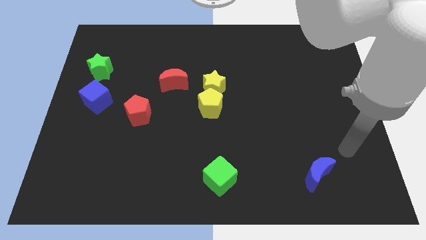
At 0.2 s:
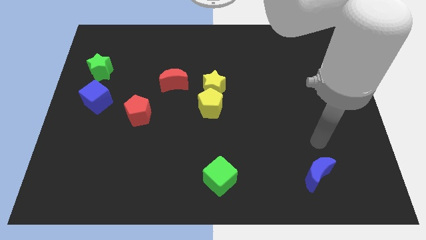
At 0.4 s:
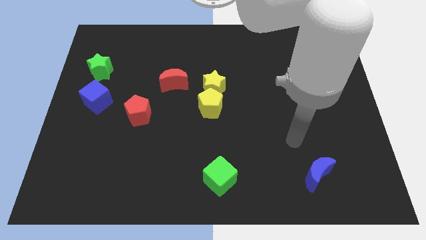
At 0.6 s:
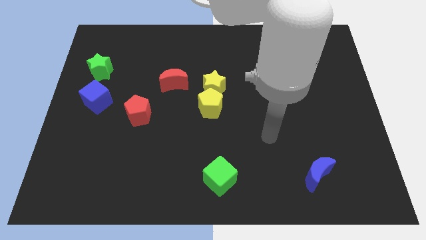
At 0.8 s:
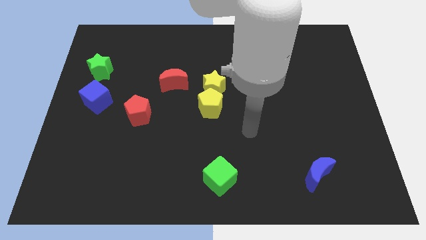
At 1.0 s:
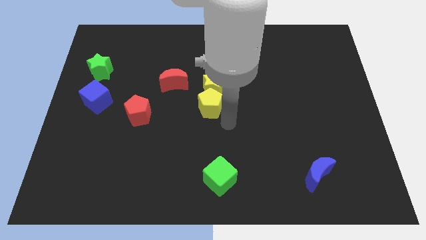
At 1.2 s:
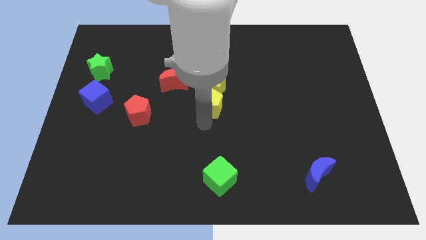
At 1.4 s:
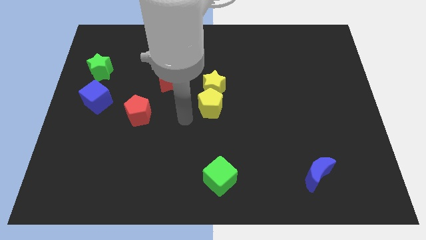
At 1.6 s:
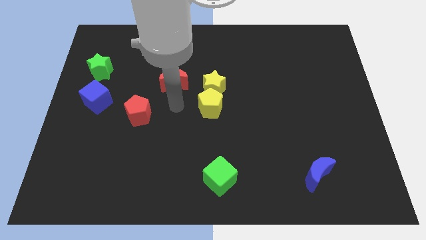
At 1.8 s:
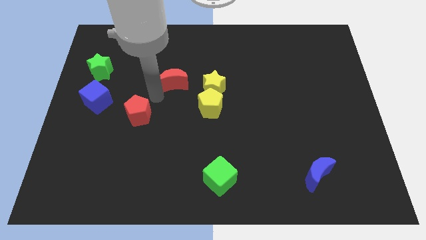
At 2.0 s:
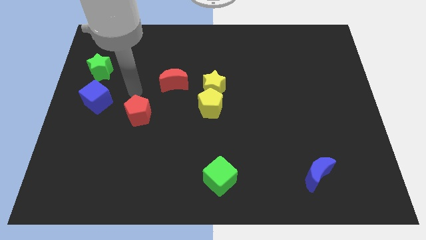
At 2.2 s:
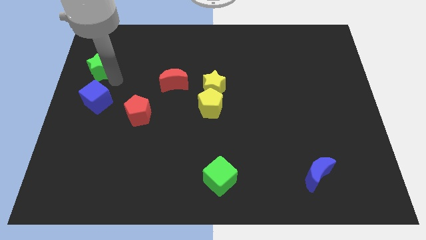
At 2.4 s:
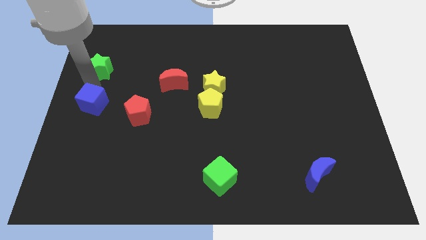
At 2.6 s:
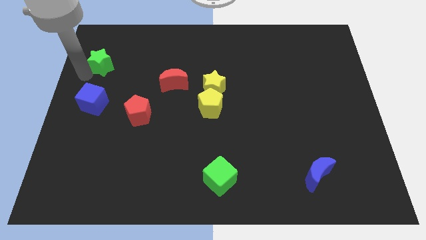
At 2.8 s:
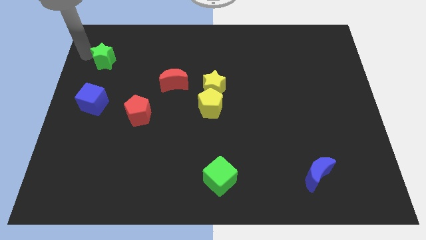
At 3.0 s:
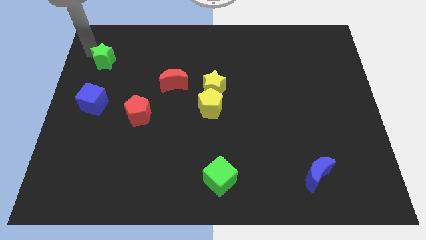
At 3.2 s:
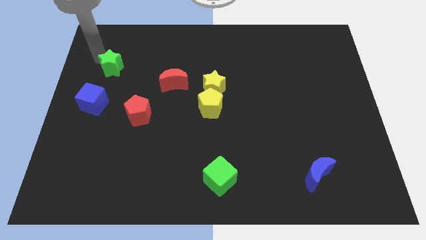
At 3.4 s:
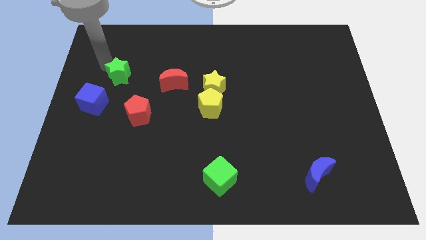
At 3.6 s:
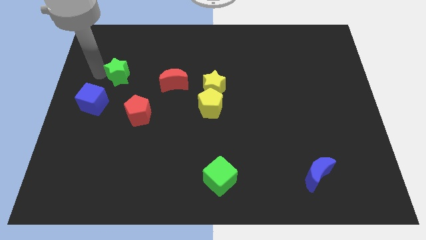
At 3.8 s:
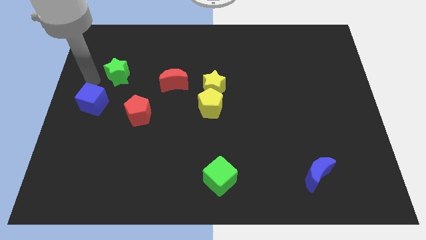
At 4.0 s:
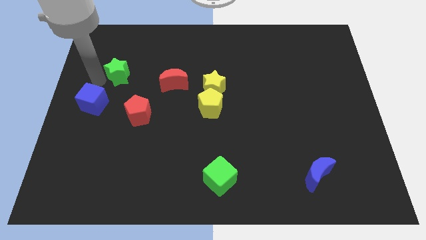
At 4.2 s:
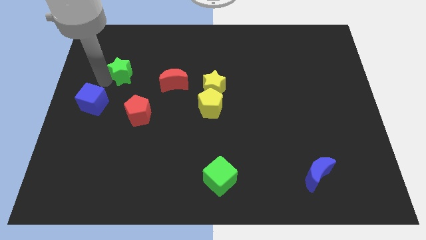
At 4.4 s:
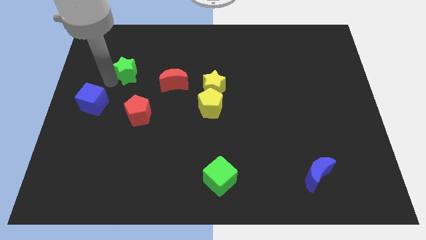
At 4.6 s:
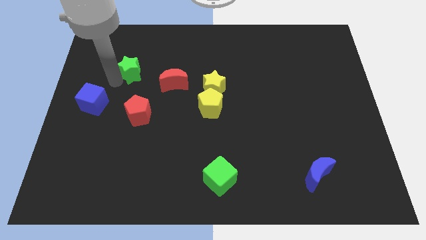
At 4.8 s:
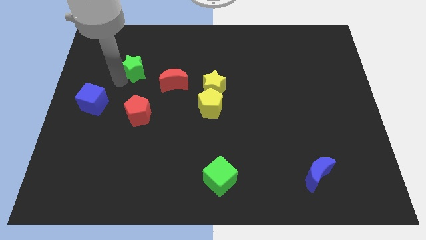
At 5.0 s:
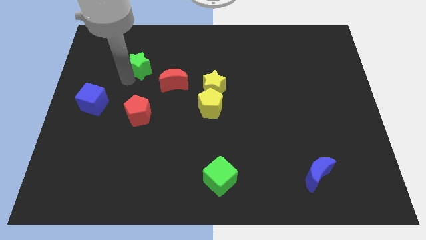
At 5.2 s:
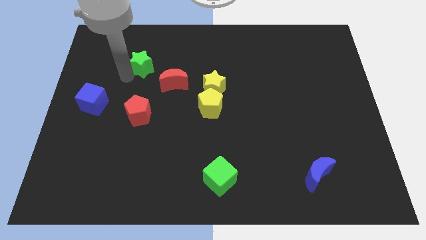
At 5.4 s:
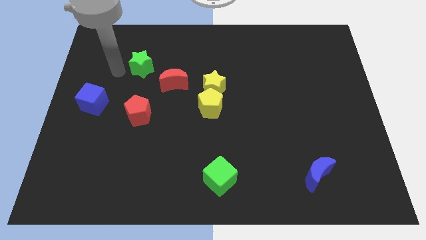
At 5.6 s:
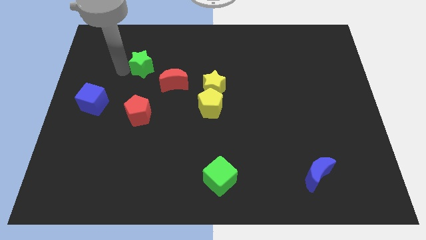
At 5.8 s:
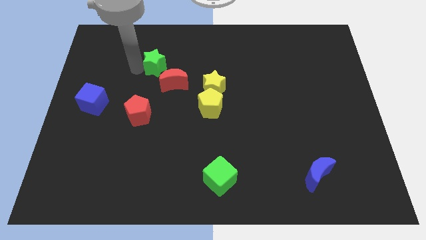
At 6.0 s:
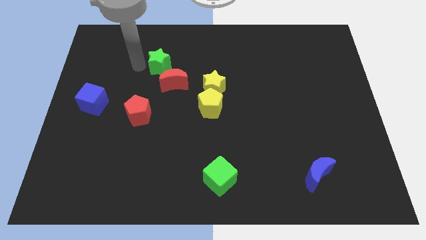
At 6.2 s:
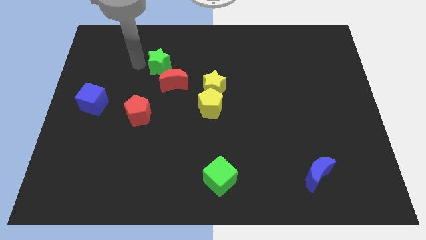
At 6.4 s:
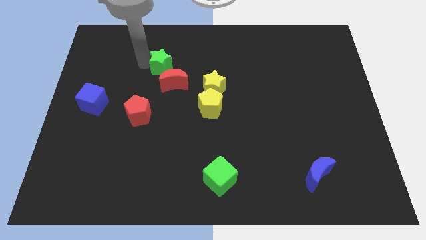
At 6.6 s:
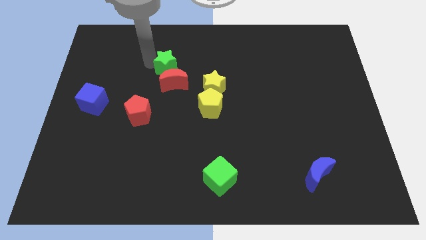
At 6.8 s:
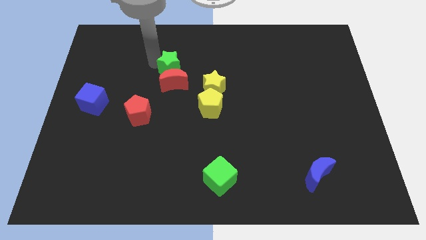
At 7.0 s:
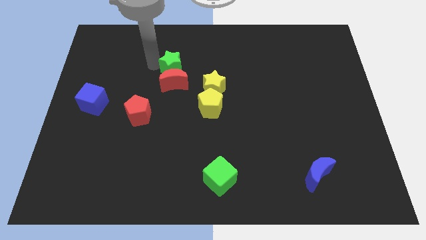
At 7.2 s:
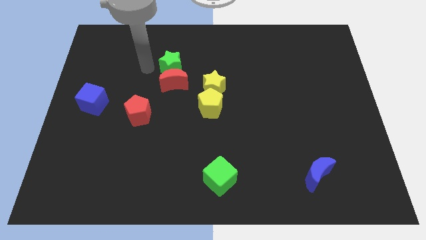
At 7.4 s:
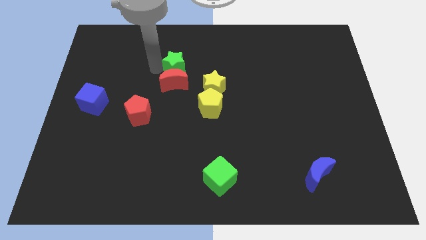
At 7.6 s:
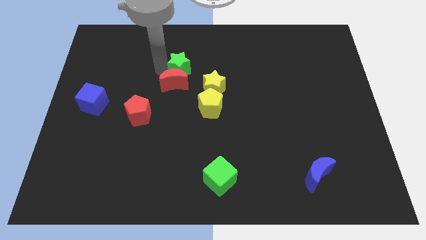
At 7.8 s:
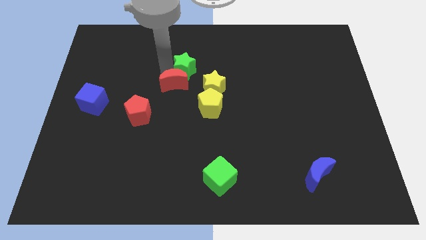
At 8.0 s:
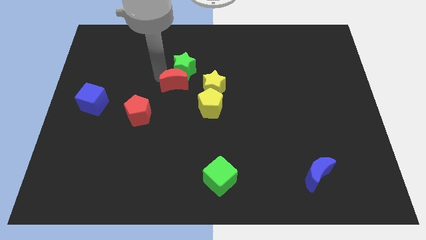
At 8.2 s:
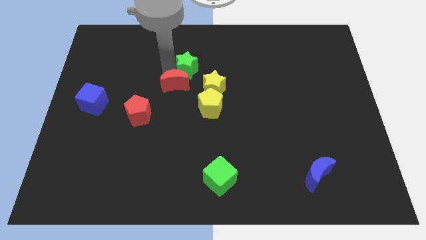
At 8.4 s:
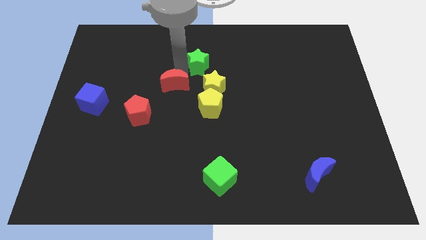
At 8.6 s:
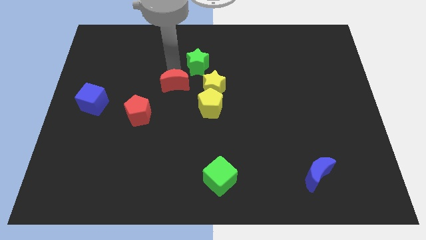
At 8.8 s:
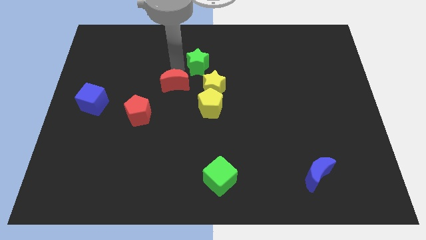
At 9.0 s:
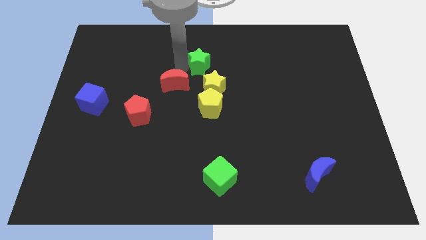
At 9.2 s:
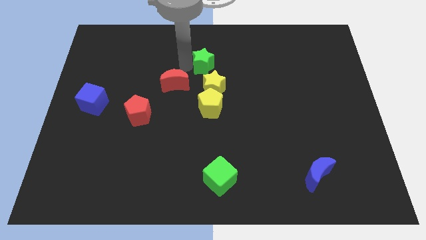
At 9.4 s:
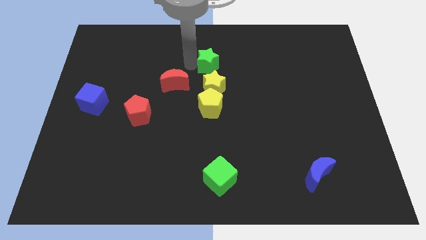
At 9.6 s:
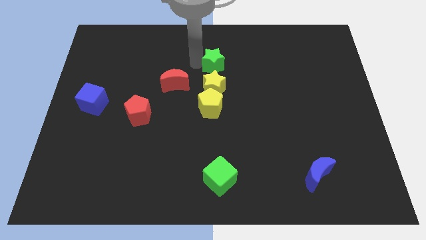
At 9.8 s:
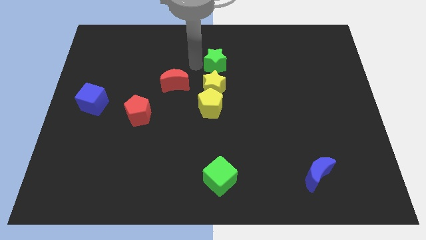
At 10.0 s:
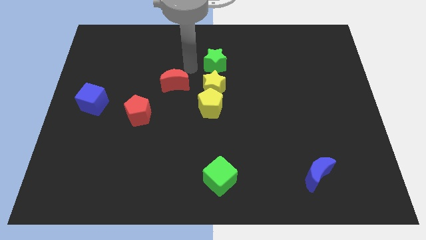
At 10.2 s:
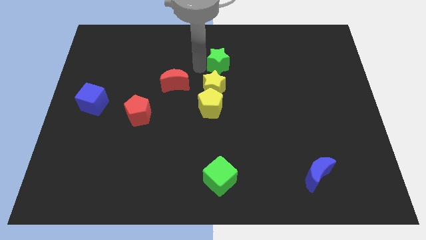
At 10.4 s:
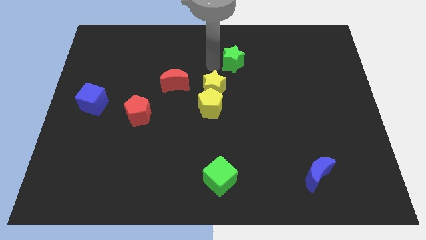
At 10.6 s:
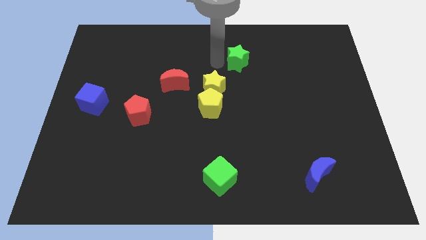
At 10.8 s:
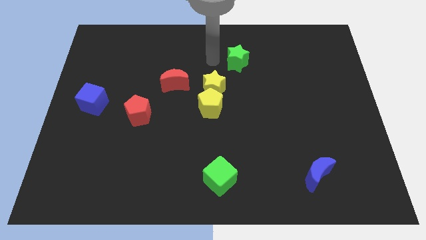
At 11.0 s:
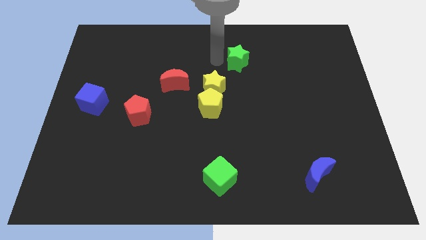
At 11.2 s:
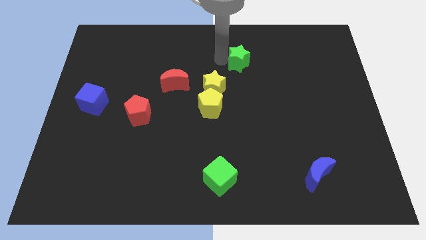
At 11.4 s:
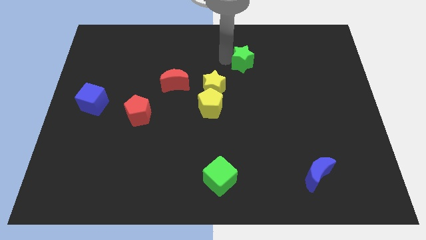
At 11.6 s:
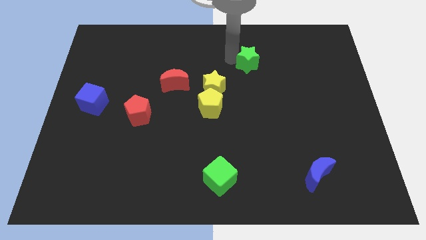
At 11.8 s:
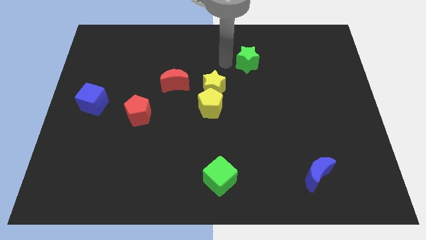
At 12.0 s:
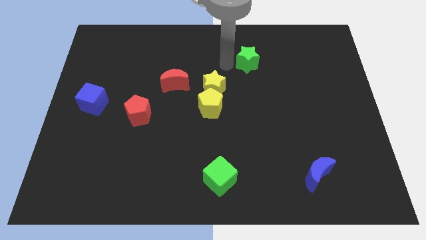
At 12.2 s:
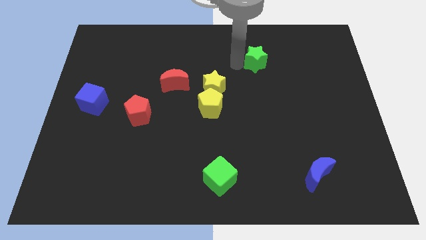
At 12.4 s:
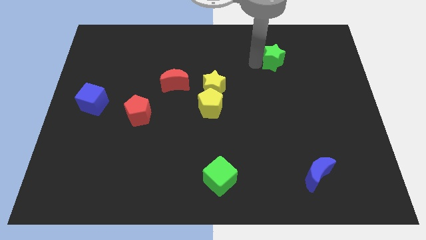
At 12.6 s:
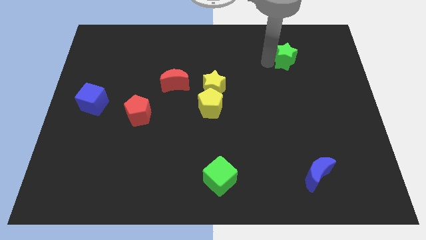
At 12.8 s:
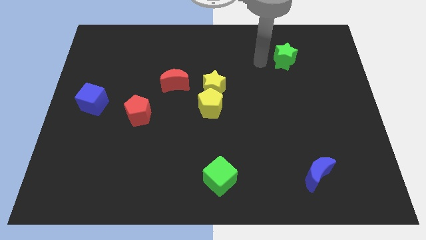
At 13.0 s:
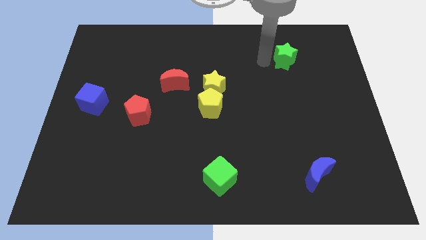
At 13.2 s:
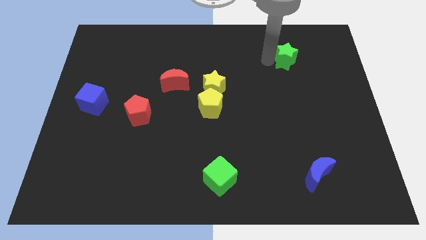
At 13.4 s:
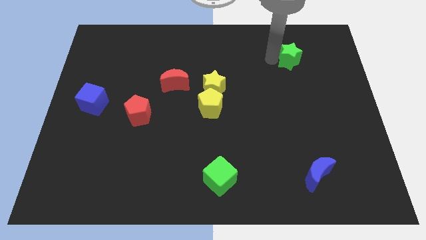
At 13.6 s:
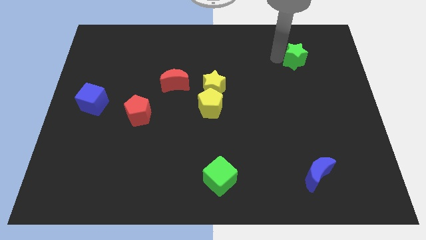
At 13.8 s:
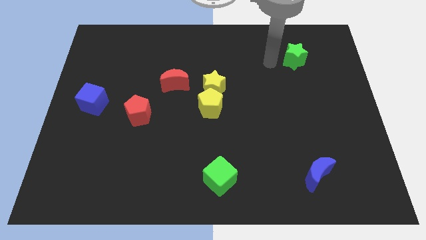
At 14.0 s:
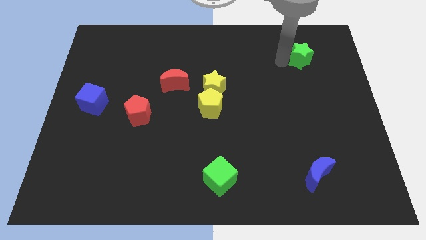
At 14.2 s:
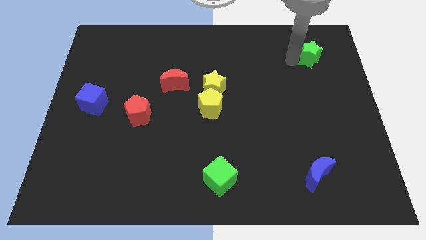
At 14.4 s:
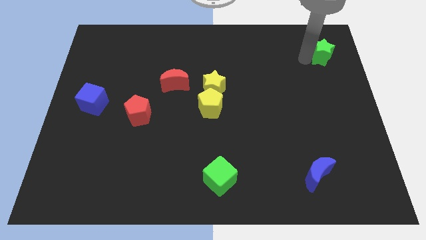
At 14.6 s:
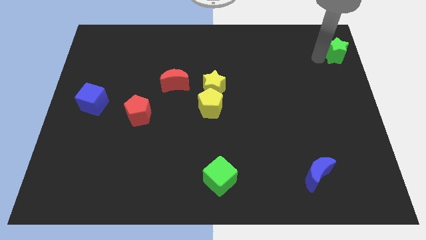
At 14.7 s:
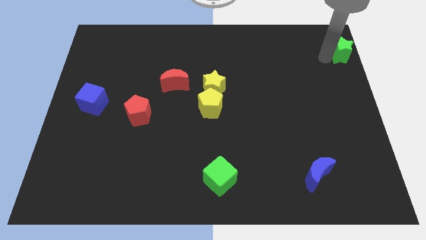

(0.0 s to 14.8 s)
move the green star to the top right
